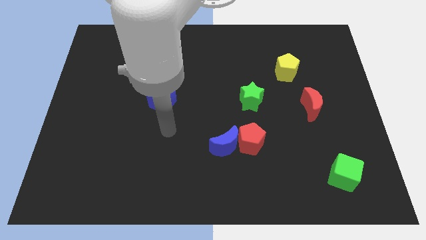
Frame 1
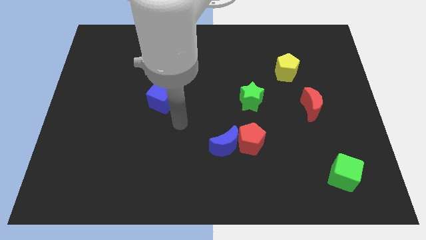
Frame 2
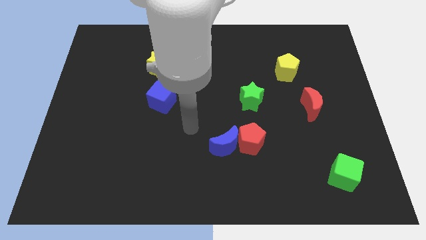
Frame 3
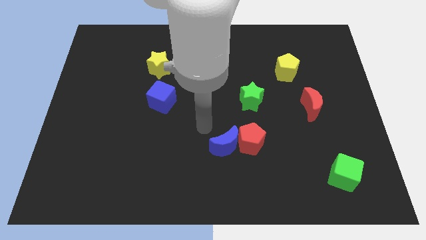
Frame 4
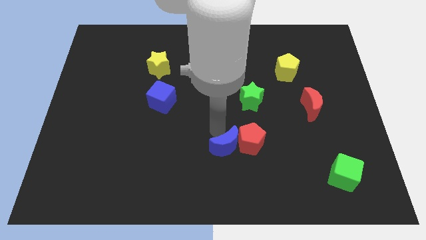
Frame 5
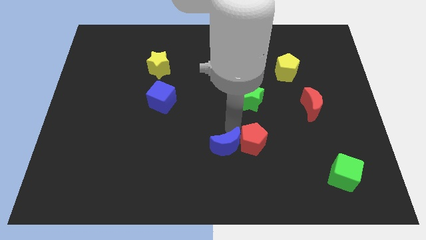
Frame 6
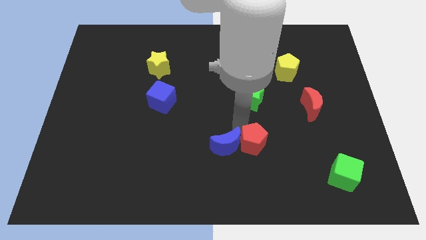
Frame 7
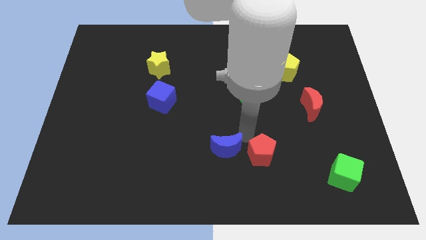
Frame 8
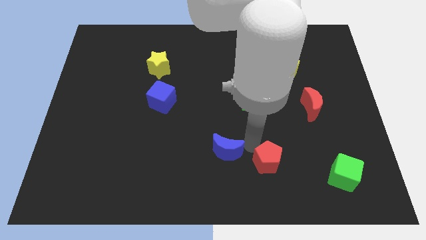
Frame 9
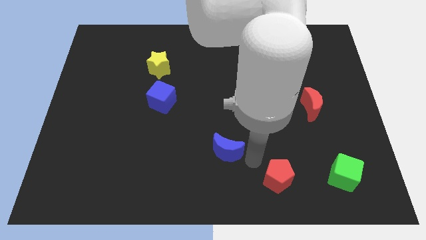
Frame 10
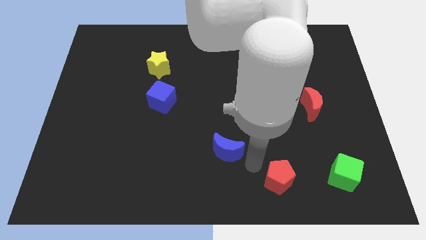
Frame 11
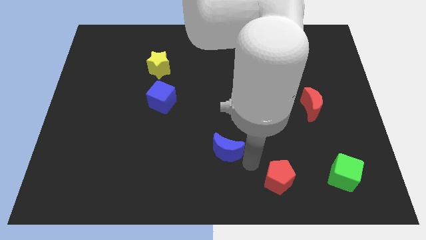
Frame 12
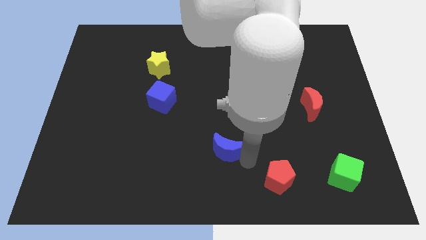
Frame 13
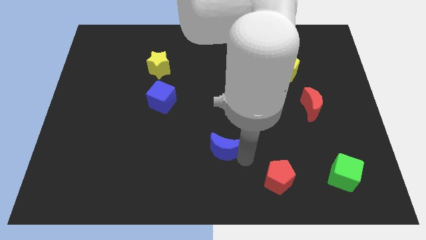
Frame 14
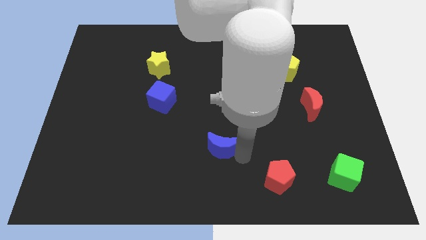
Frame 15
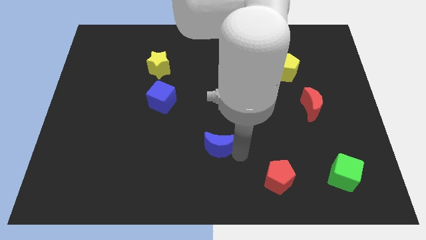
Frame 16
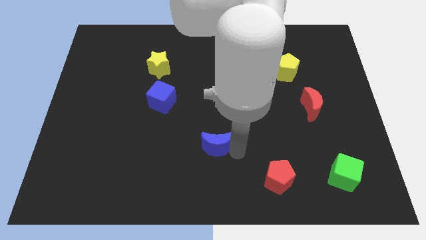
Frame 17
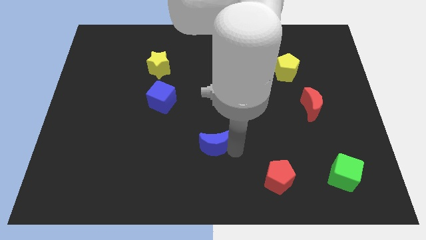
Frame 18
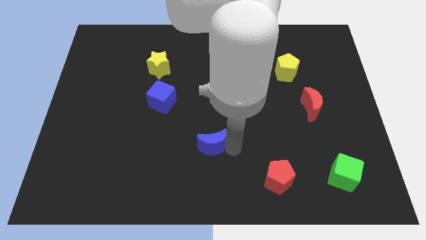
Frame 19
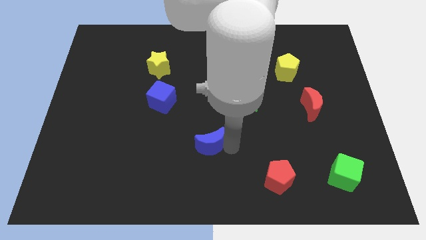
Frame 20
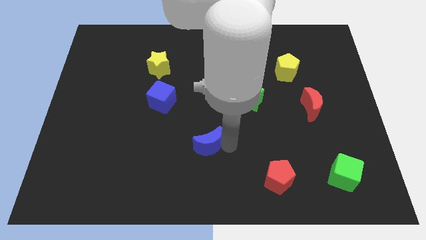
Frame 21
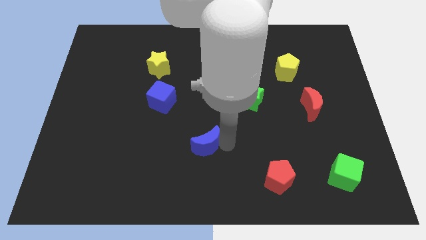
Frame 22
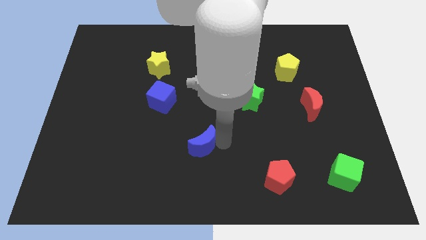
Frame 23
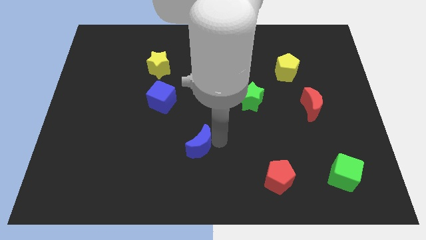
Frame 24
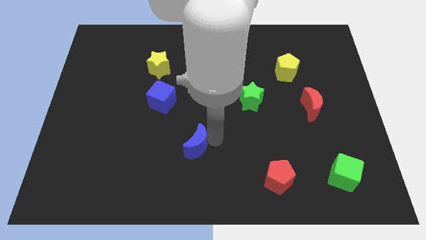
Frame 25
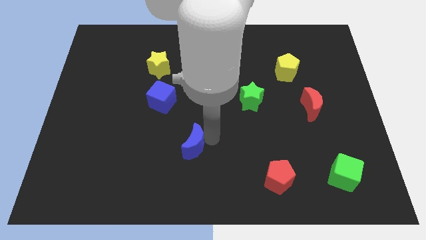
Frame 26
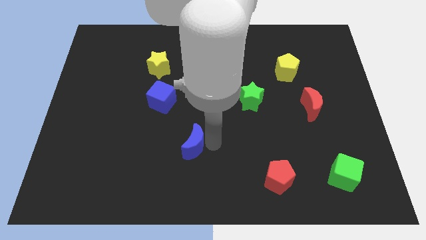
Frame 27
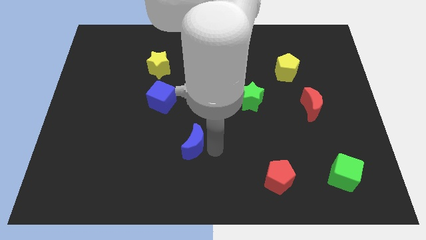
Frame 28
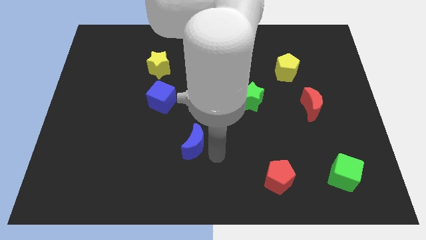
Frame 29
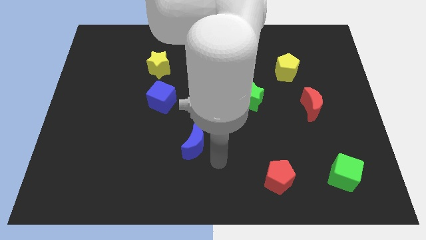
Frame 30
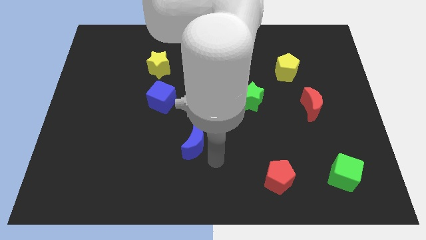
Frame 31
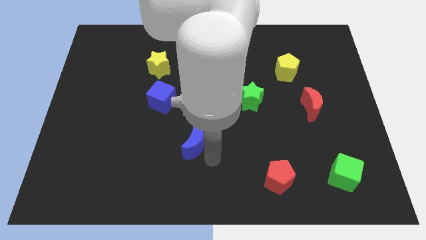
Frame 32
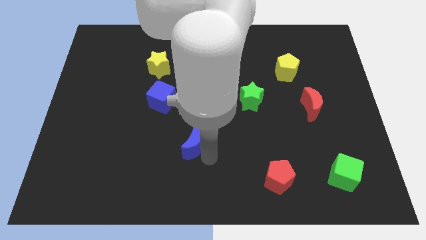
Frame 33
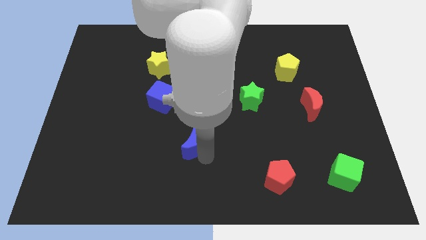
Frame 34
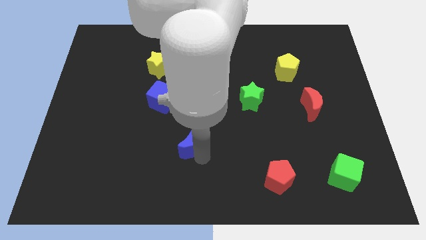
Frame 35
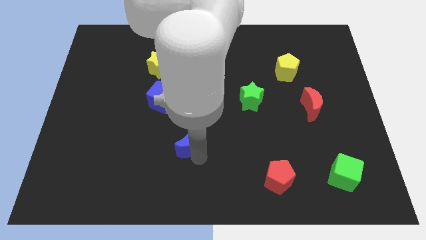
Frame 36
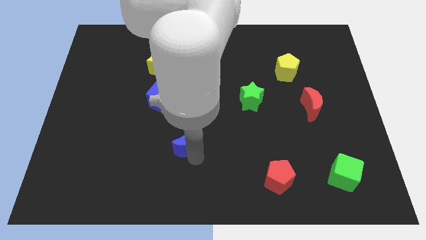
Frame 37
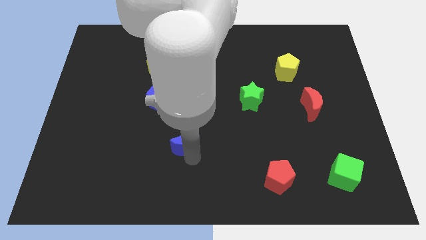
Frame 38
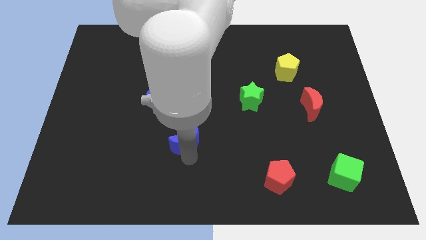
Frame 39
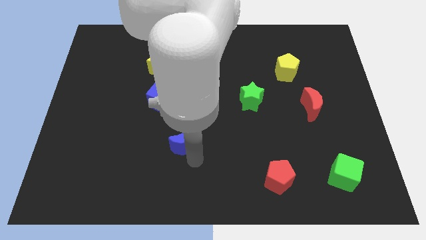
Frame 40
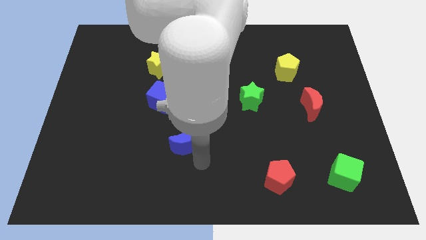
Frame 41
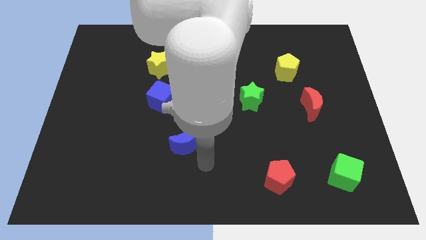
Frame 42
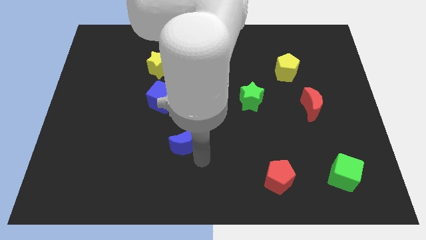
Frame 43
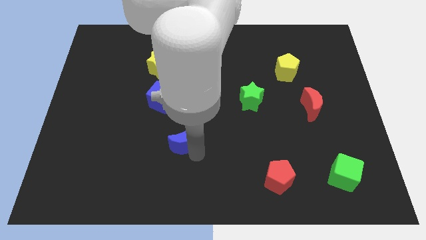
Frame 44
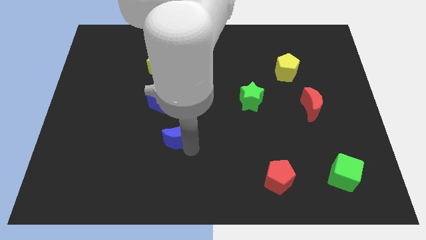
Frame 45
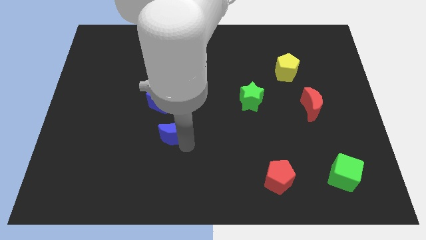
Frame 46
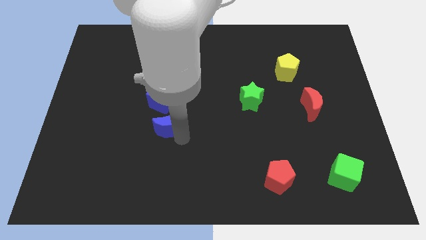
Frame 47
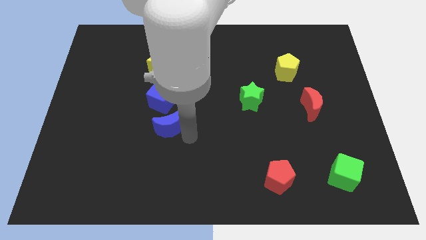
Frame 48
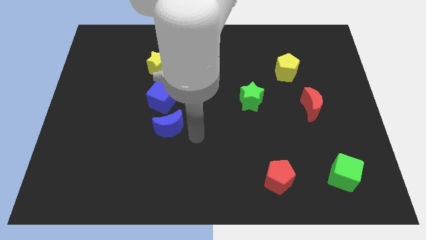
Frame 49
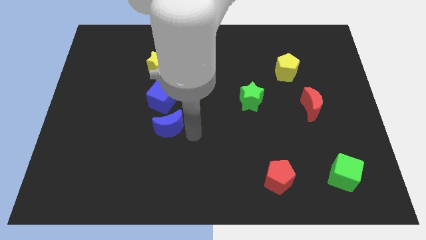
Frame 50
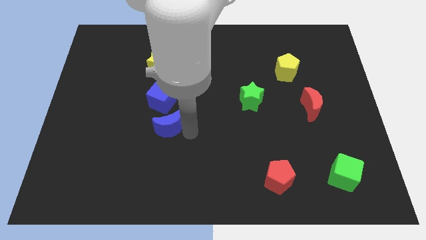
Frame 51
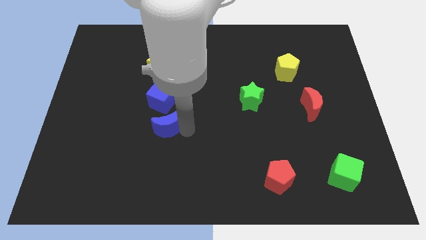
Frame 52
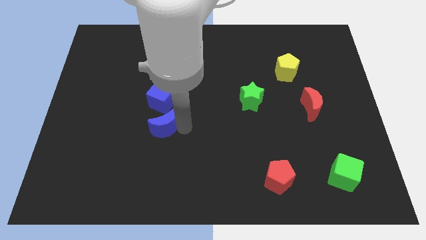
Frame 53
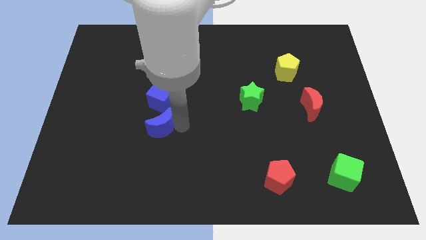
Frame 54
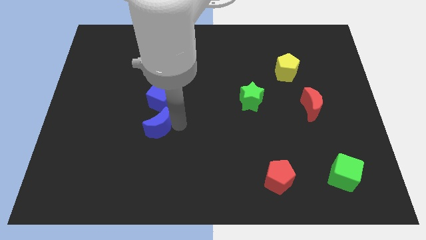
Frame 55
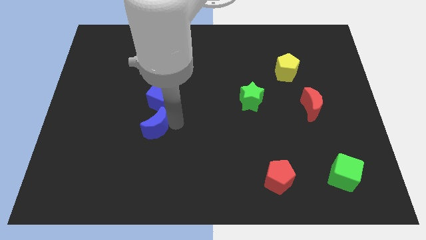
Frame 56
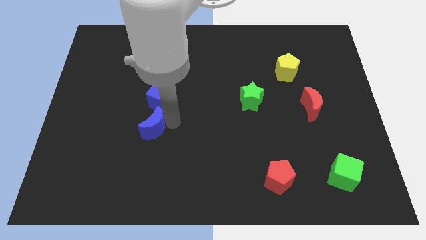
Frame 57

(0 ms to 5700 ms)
put the blue moon to the bottom left of the blue cube

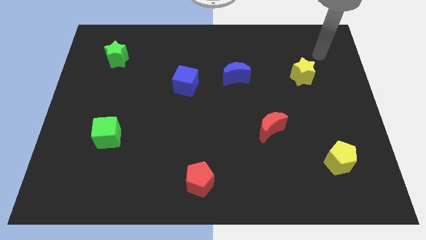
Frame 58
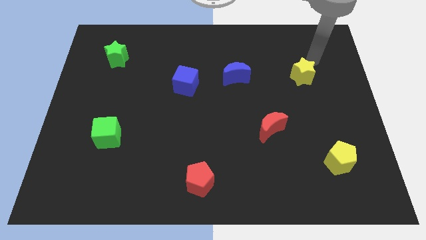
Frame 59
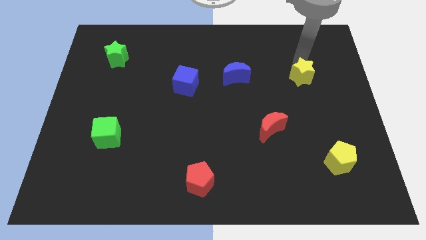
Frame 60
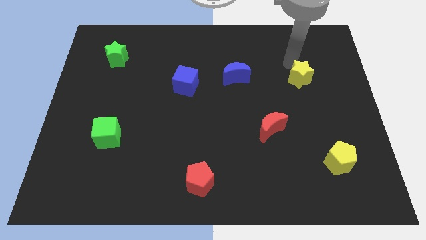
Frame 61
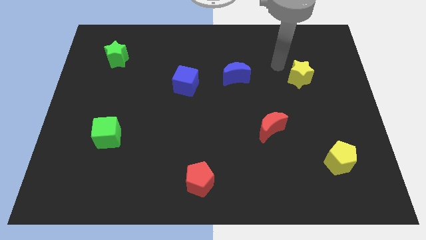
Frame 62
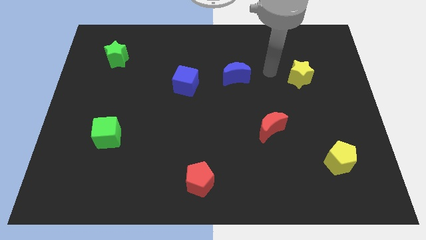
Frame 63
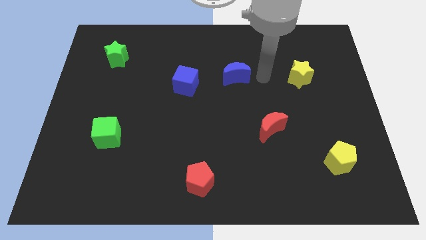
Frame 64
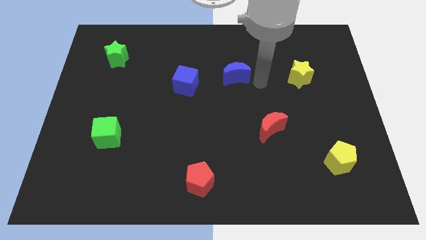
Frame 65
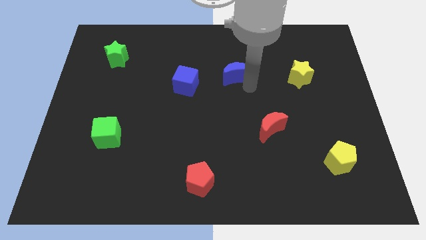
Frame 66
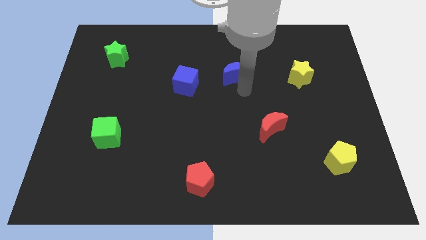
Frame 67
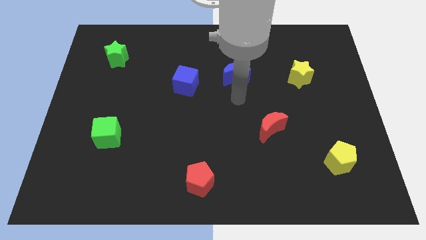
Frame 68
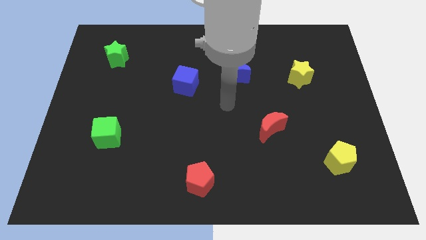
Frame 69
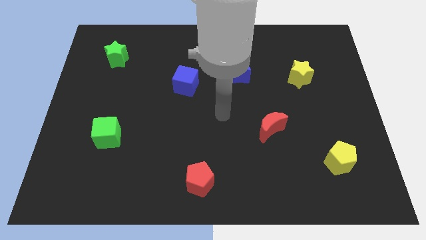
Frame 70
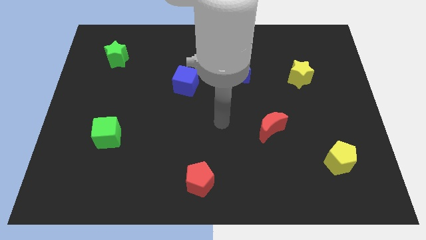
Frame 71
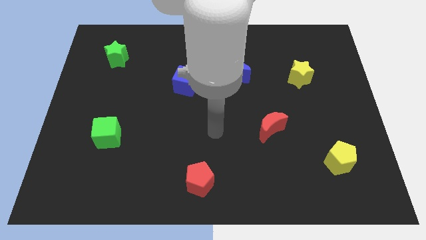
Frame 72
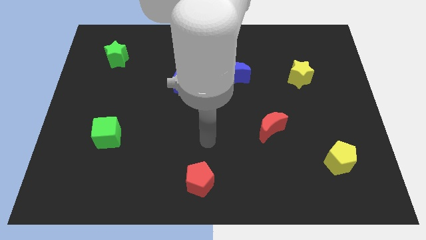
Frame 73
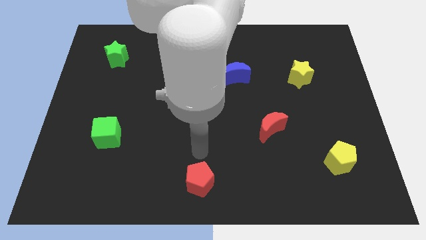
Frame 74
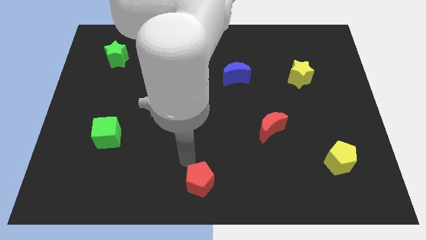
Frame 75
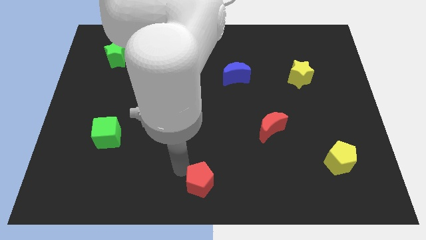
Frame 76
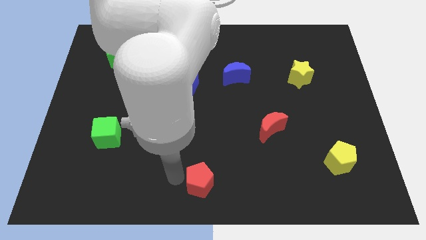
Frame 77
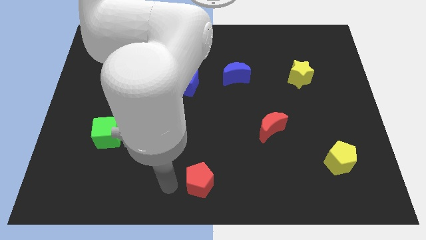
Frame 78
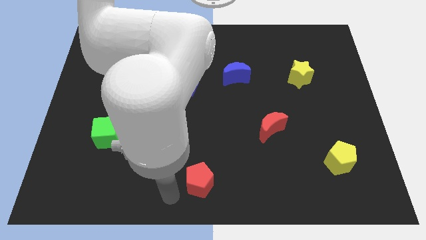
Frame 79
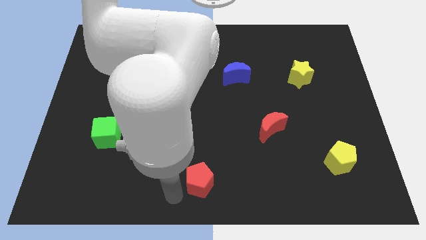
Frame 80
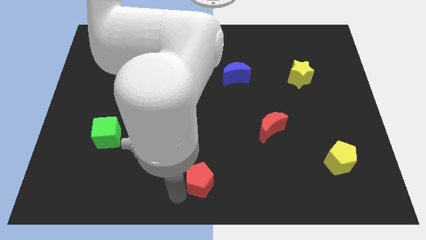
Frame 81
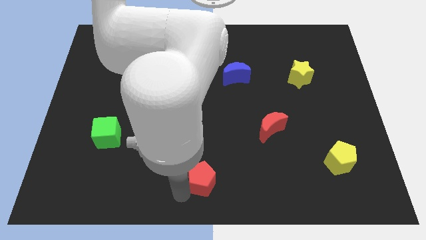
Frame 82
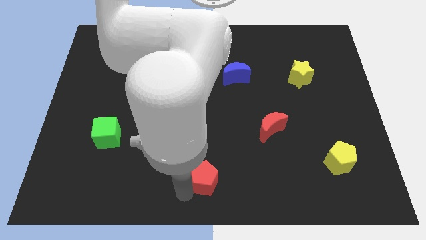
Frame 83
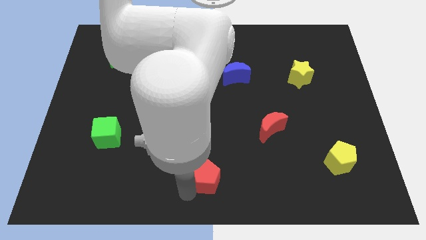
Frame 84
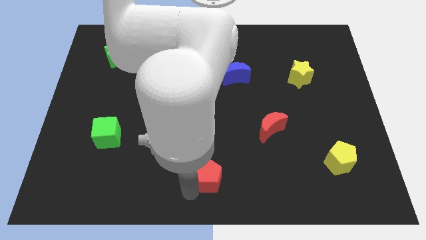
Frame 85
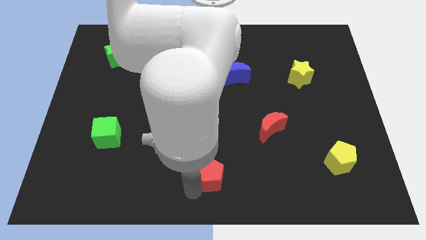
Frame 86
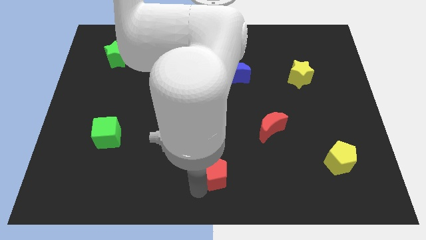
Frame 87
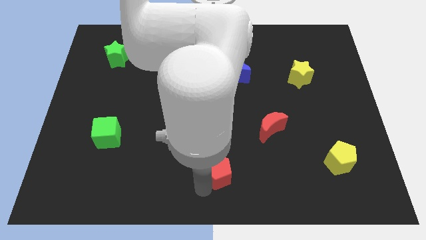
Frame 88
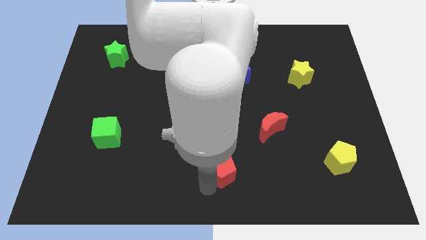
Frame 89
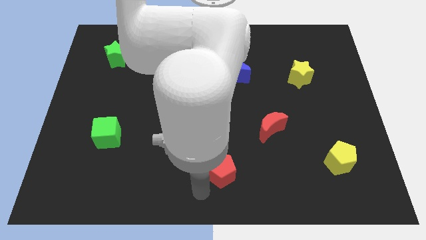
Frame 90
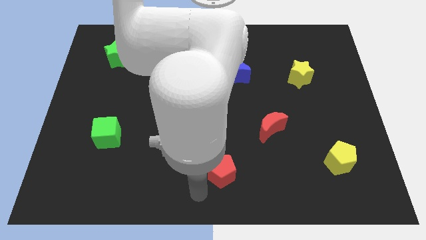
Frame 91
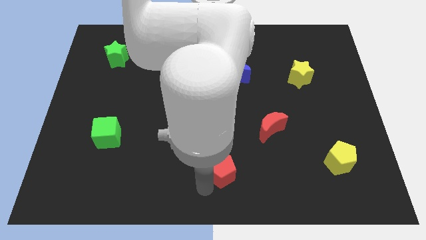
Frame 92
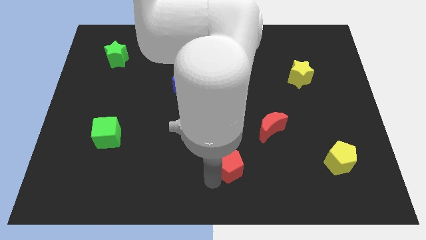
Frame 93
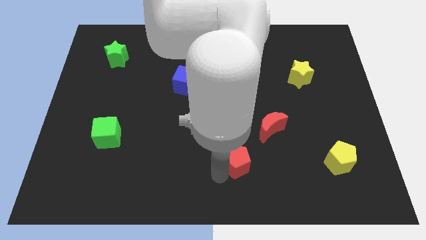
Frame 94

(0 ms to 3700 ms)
put the red pentagon diagonally down and to the left of the red moon
